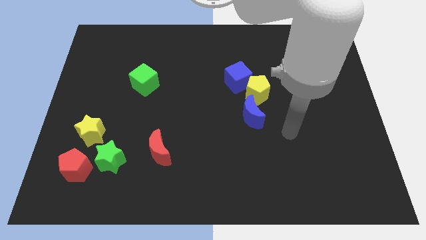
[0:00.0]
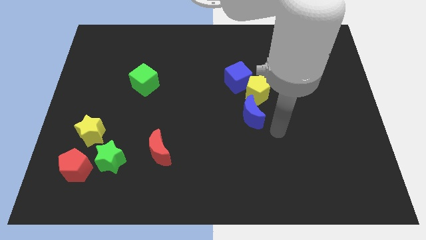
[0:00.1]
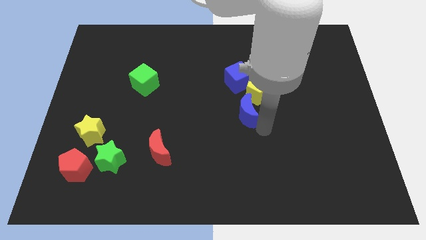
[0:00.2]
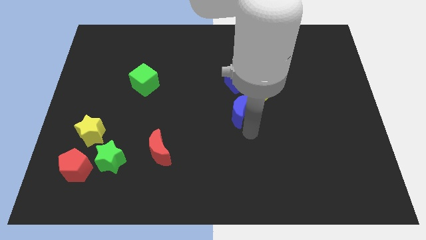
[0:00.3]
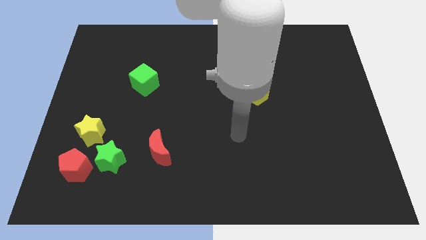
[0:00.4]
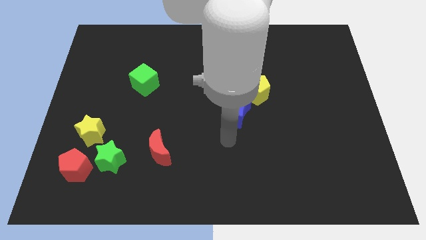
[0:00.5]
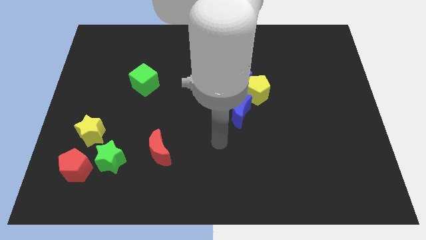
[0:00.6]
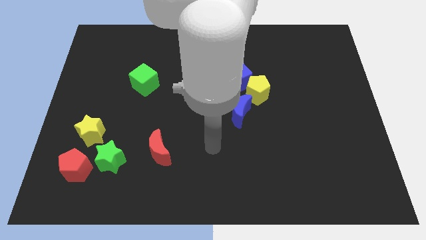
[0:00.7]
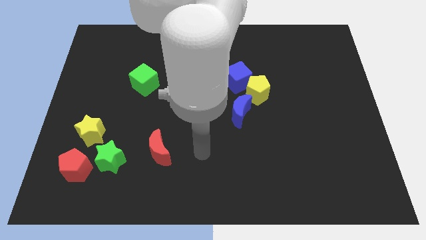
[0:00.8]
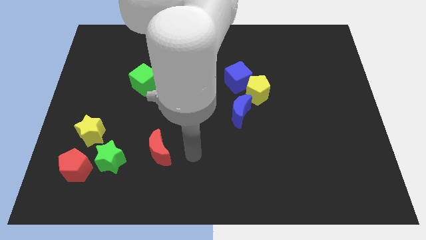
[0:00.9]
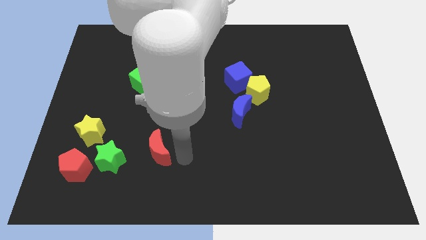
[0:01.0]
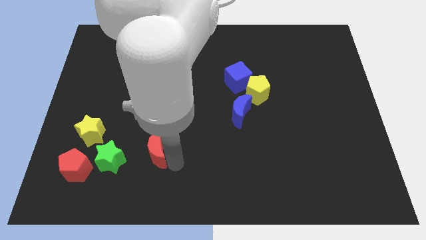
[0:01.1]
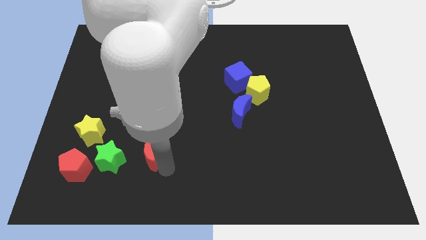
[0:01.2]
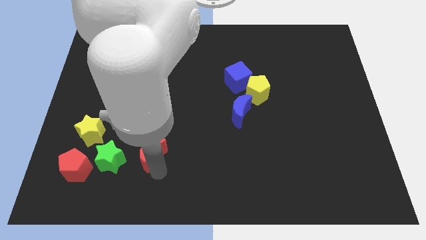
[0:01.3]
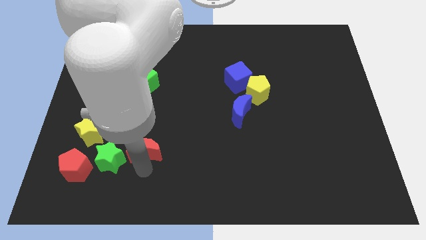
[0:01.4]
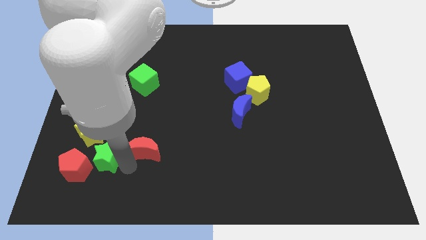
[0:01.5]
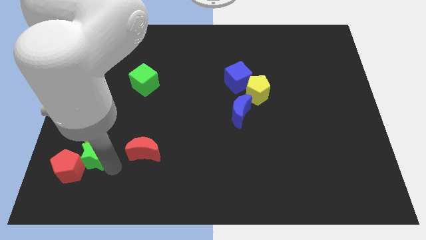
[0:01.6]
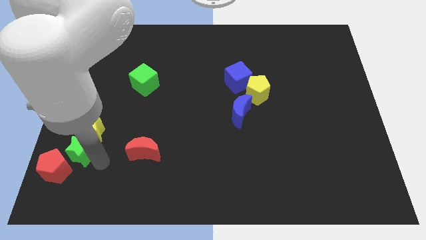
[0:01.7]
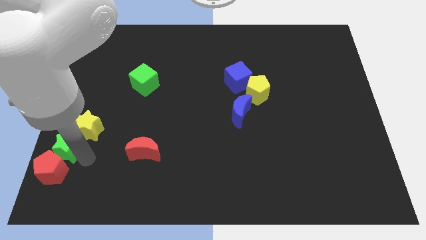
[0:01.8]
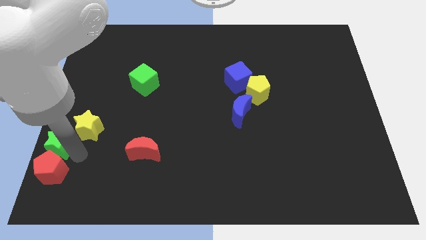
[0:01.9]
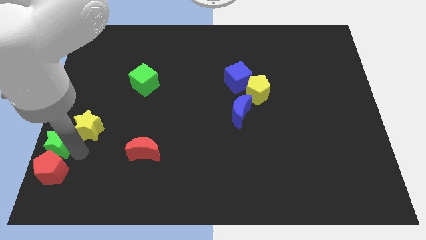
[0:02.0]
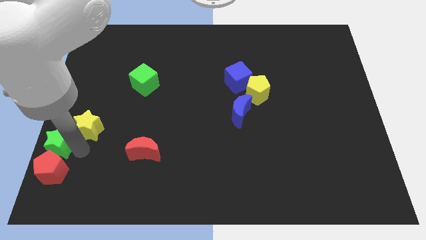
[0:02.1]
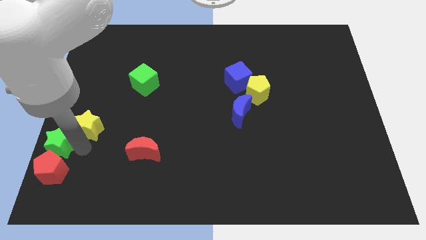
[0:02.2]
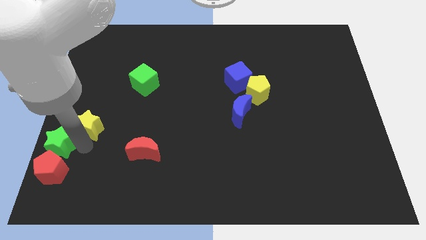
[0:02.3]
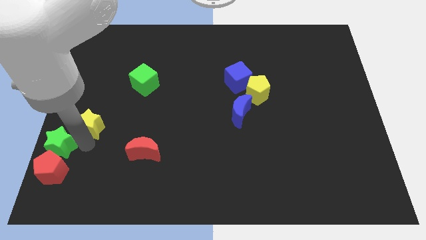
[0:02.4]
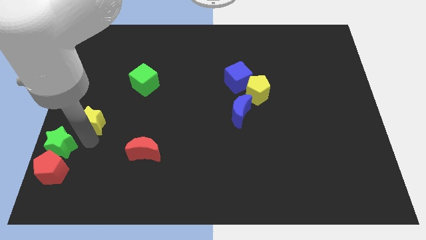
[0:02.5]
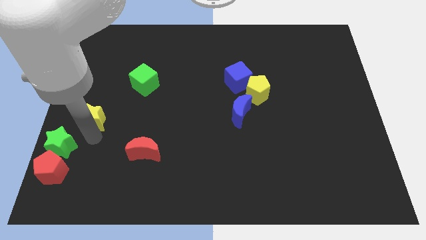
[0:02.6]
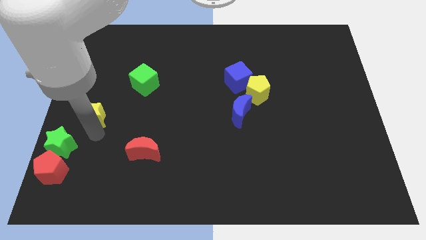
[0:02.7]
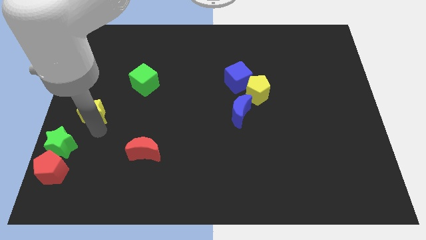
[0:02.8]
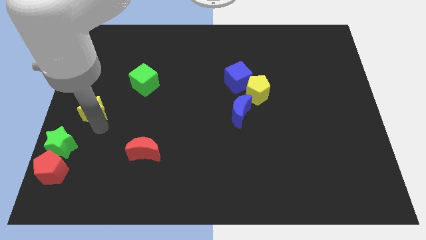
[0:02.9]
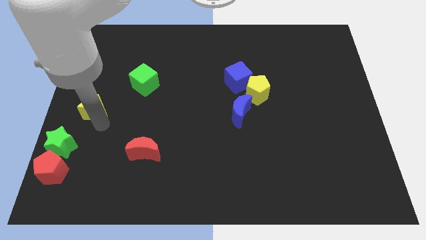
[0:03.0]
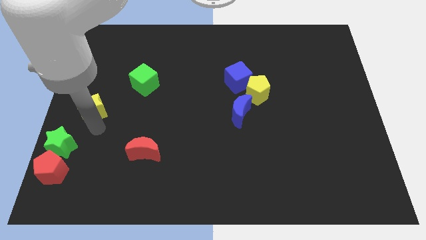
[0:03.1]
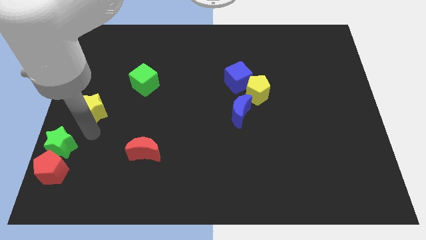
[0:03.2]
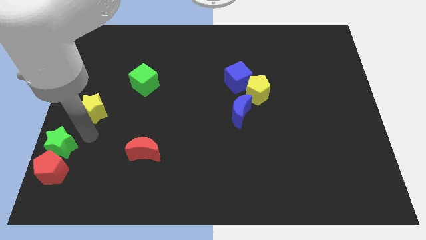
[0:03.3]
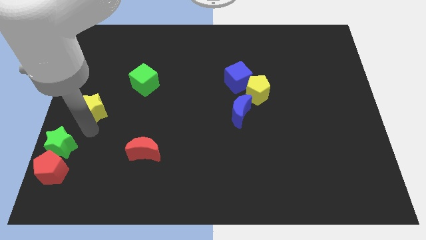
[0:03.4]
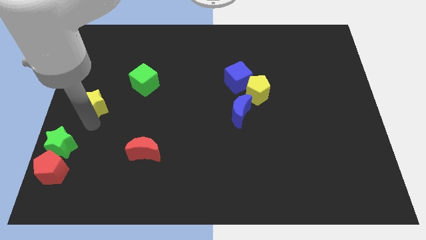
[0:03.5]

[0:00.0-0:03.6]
move the yellow star a little bit upwards

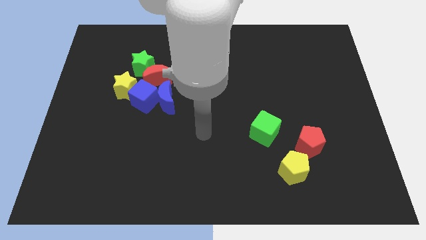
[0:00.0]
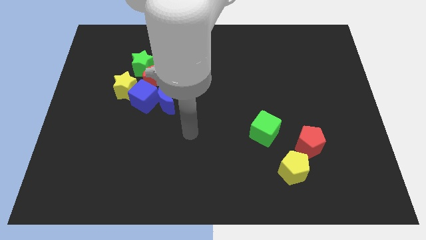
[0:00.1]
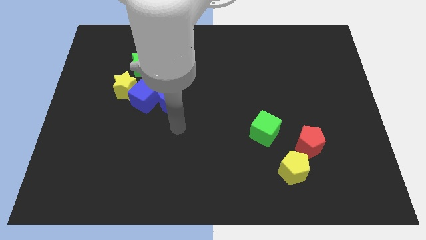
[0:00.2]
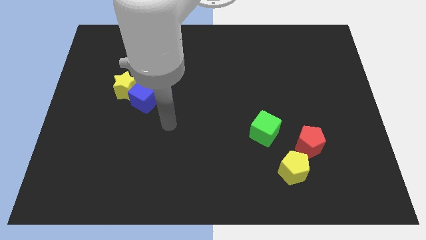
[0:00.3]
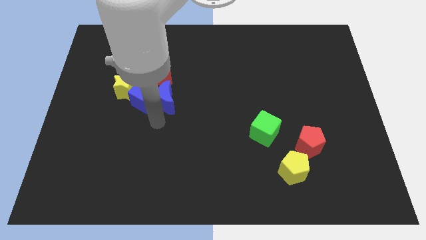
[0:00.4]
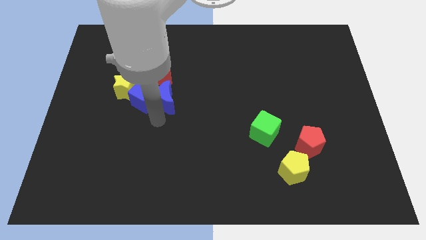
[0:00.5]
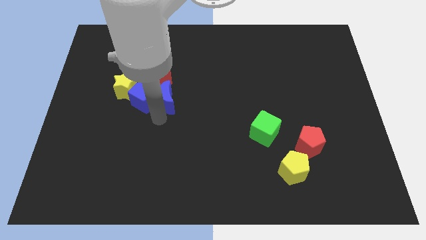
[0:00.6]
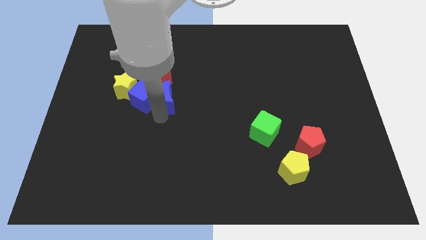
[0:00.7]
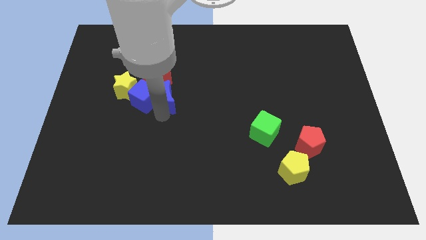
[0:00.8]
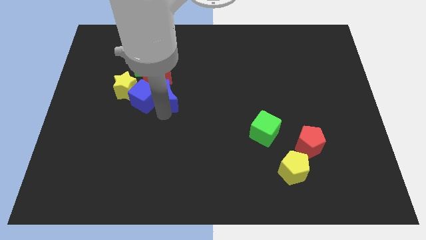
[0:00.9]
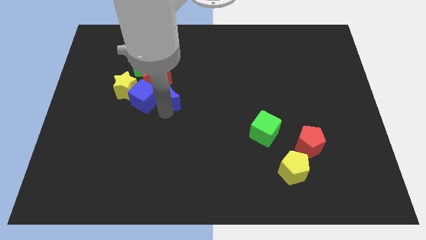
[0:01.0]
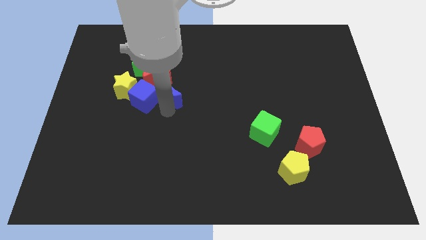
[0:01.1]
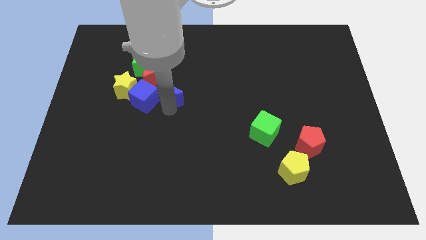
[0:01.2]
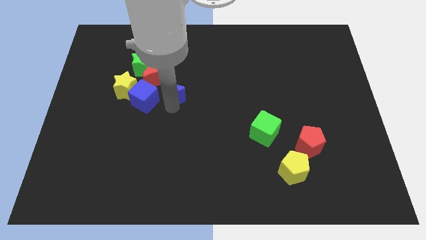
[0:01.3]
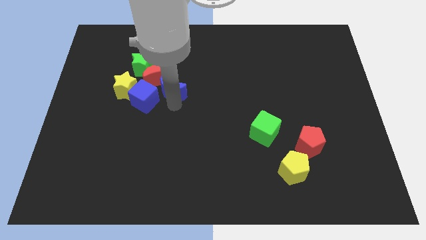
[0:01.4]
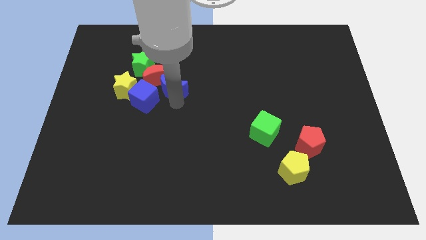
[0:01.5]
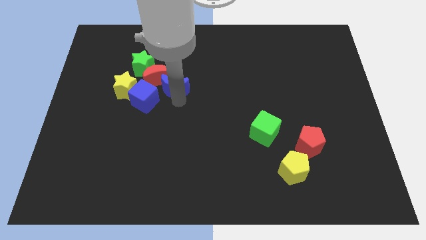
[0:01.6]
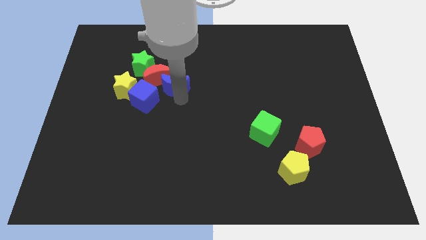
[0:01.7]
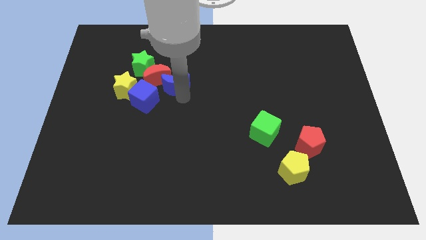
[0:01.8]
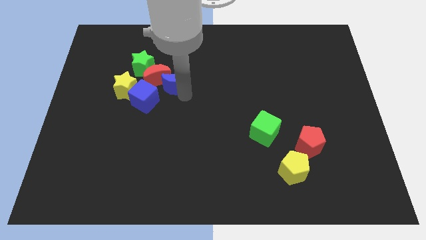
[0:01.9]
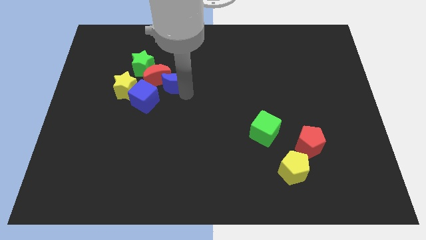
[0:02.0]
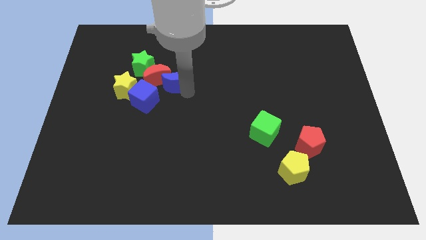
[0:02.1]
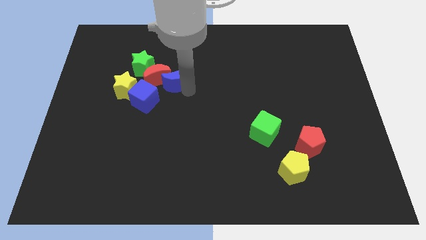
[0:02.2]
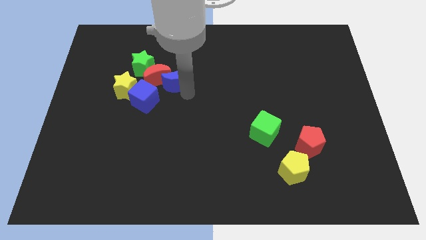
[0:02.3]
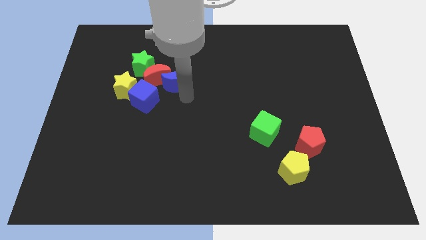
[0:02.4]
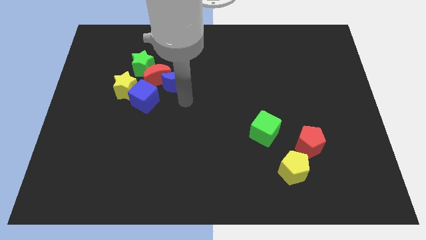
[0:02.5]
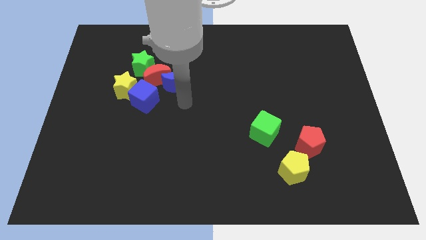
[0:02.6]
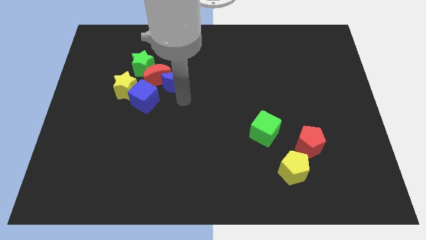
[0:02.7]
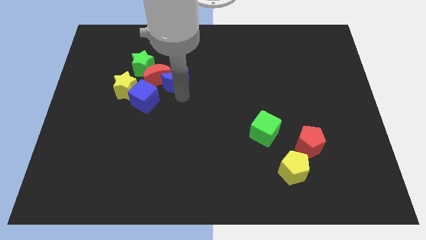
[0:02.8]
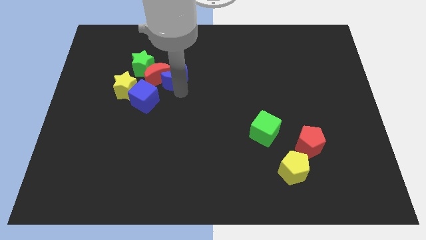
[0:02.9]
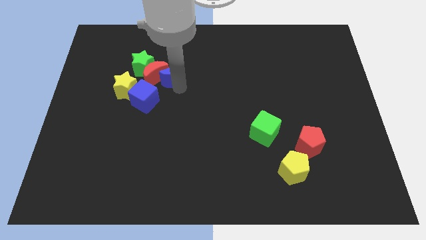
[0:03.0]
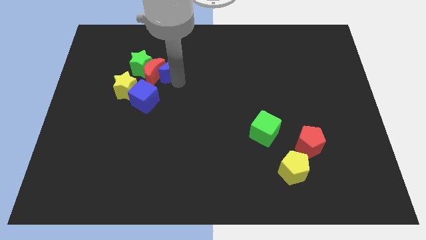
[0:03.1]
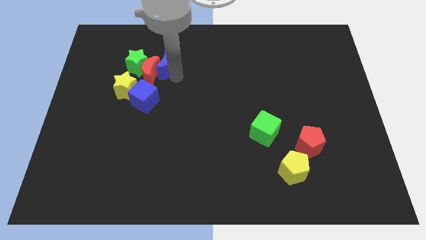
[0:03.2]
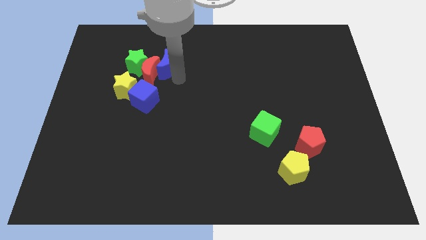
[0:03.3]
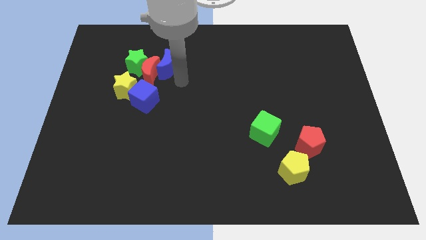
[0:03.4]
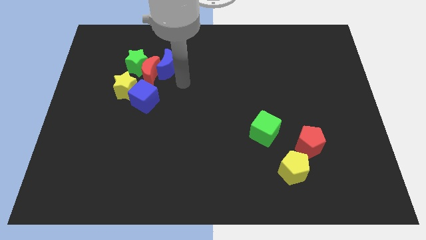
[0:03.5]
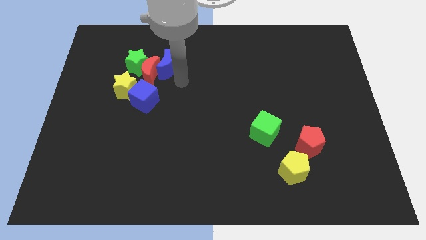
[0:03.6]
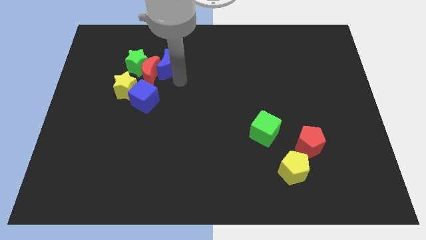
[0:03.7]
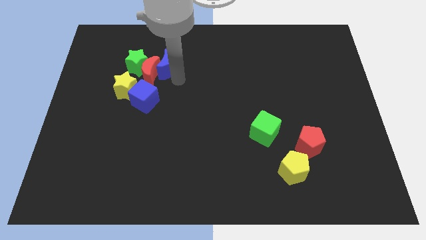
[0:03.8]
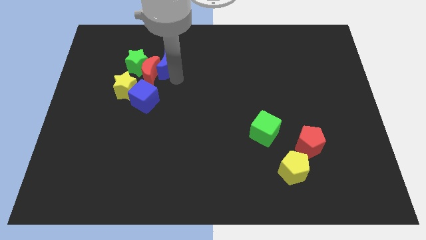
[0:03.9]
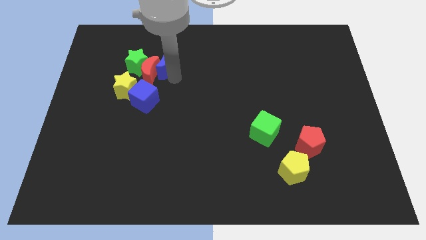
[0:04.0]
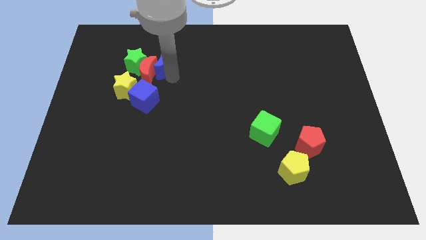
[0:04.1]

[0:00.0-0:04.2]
slide the blue moon up and to the left a bit

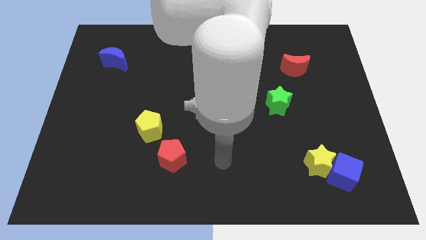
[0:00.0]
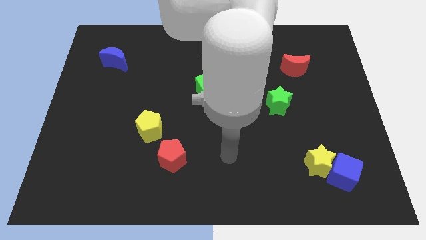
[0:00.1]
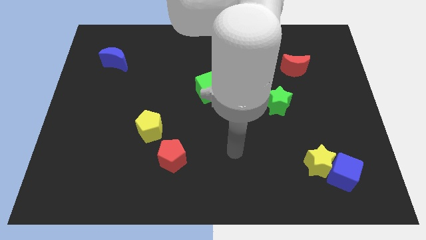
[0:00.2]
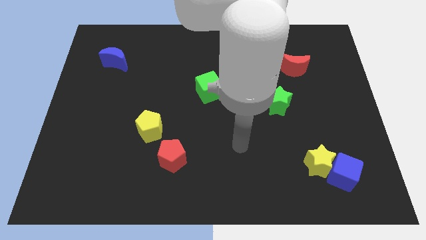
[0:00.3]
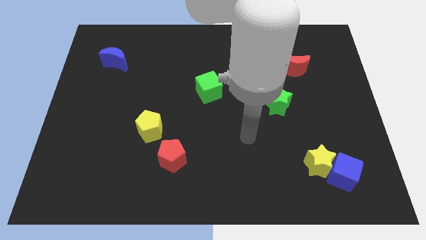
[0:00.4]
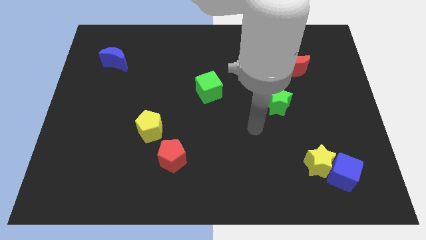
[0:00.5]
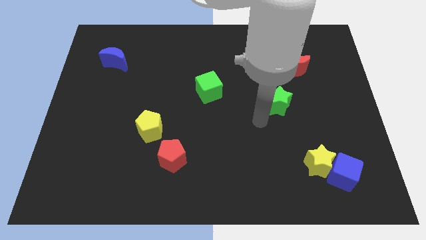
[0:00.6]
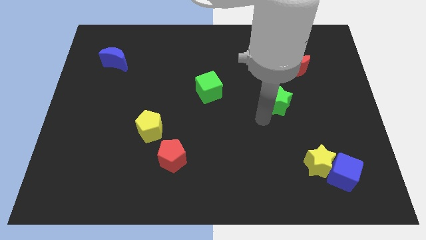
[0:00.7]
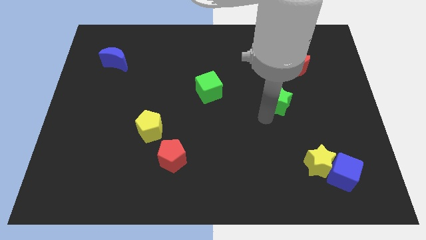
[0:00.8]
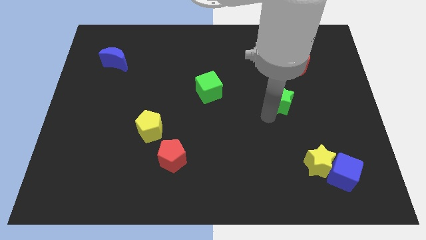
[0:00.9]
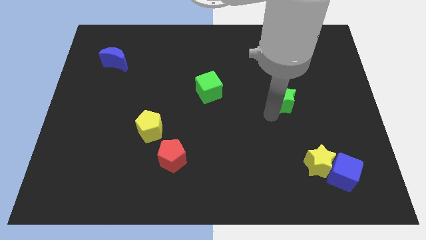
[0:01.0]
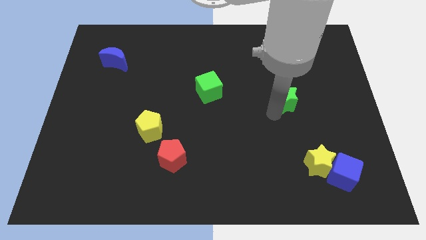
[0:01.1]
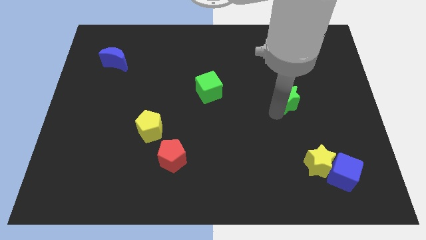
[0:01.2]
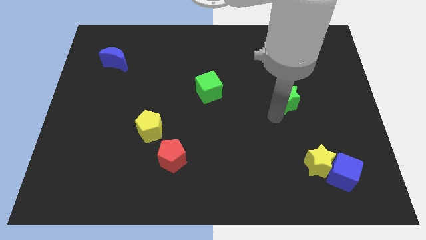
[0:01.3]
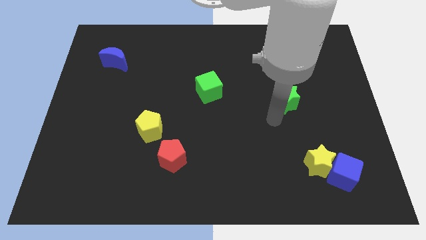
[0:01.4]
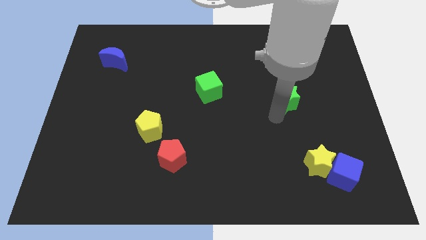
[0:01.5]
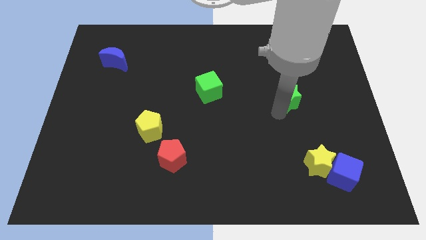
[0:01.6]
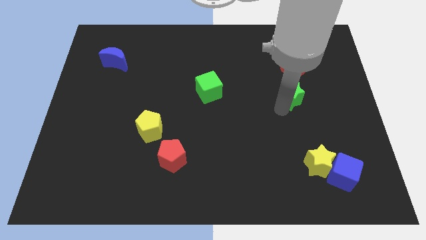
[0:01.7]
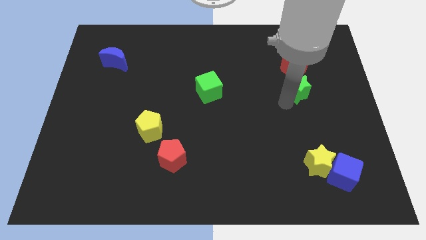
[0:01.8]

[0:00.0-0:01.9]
slide the green star a little upwards and to the right diagonally
